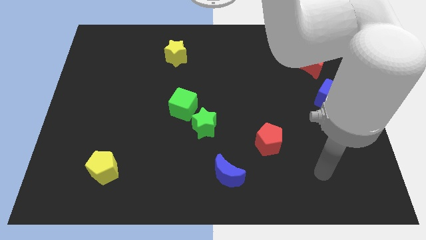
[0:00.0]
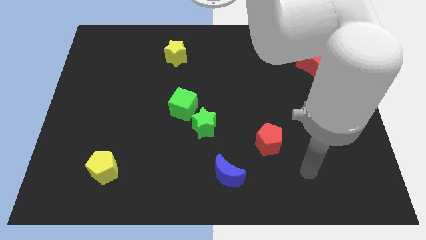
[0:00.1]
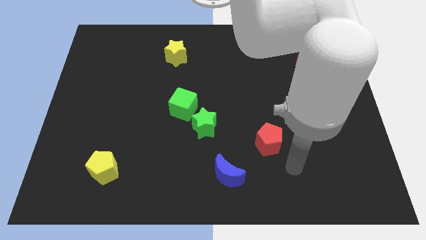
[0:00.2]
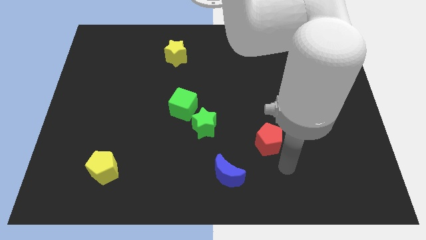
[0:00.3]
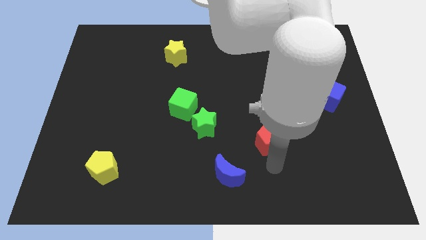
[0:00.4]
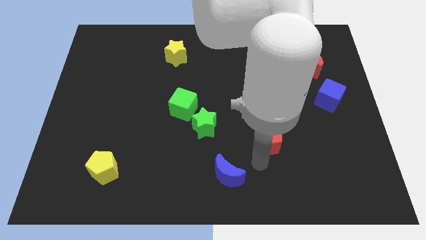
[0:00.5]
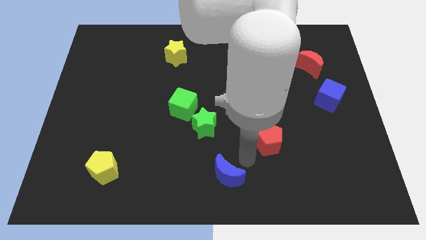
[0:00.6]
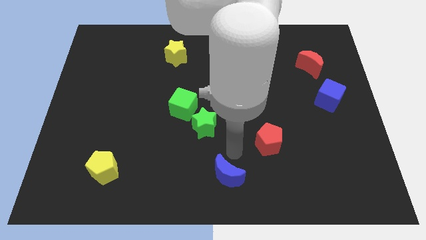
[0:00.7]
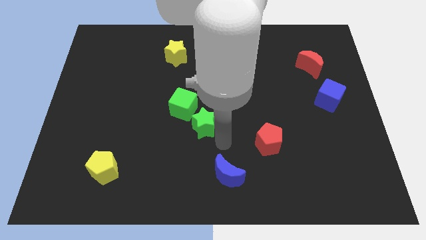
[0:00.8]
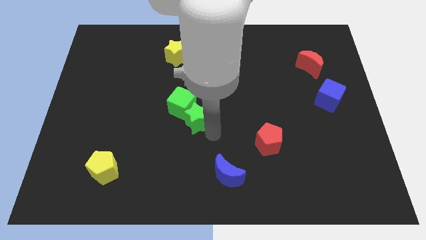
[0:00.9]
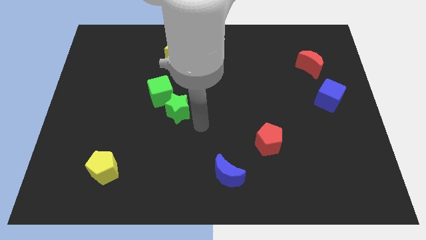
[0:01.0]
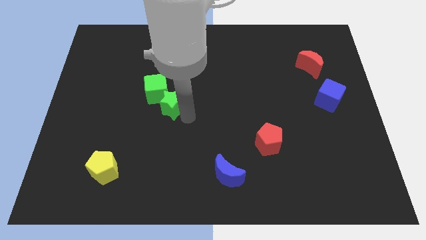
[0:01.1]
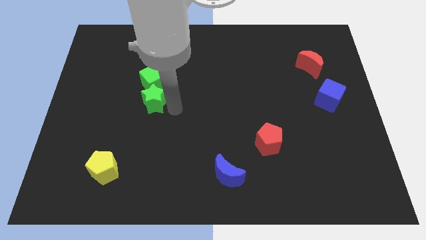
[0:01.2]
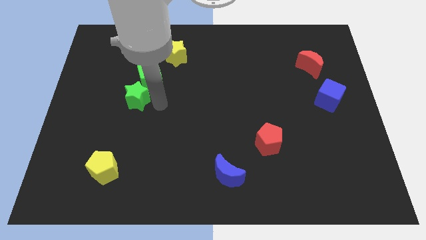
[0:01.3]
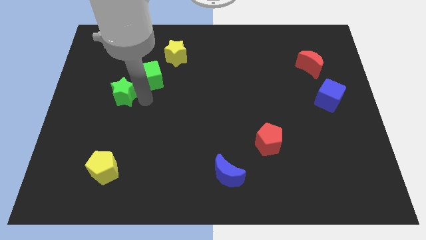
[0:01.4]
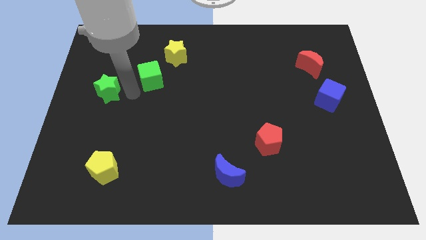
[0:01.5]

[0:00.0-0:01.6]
separate the green cube from the green star

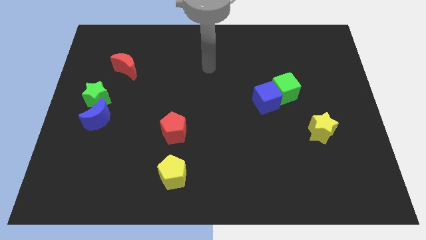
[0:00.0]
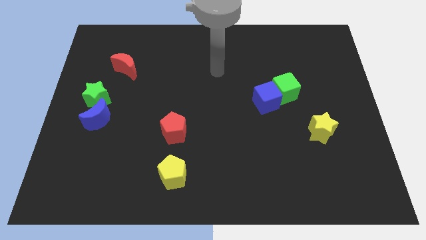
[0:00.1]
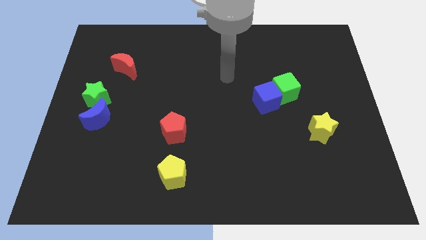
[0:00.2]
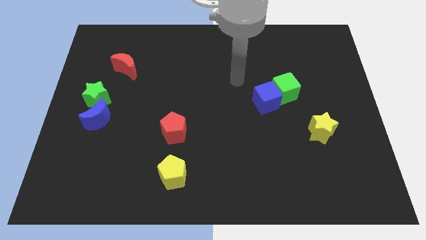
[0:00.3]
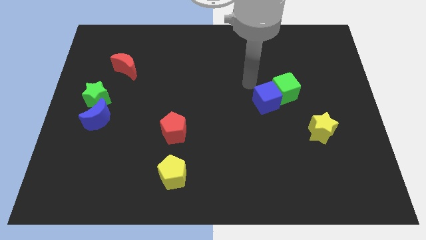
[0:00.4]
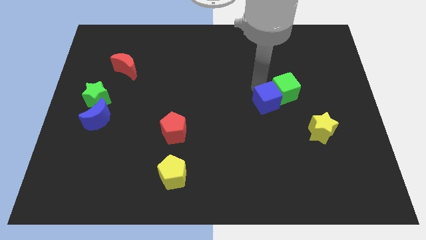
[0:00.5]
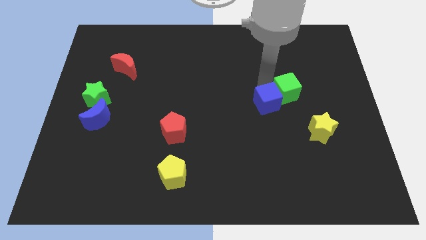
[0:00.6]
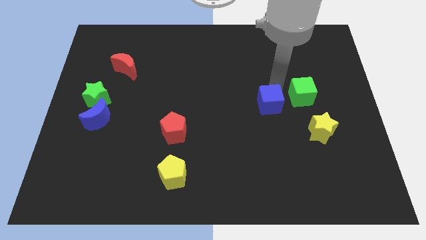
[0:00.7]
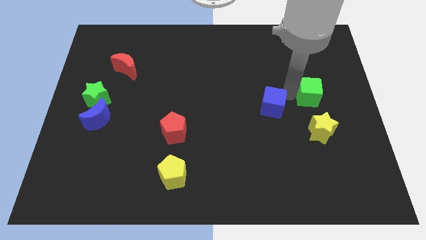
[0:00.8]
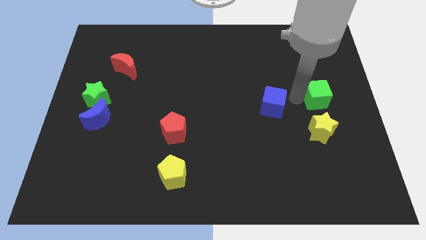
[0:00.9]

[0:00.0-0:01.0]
separate the blue cube from the green cube

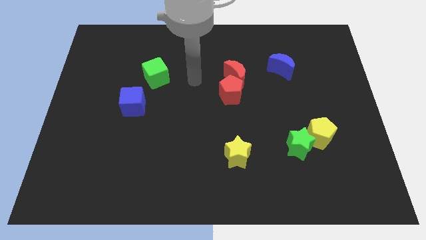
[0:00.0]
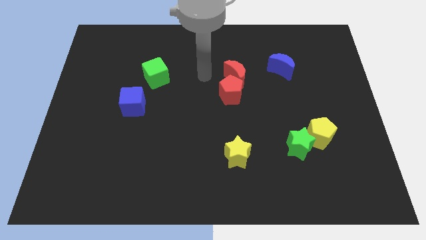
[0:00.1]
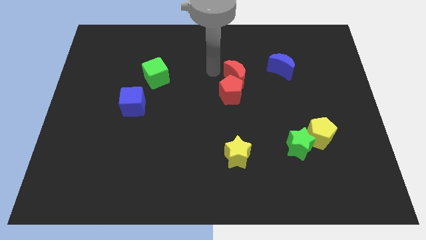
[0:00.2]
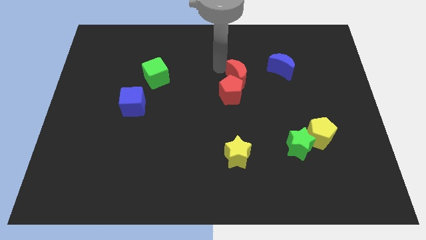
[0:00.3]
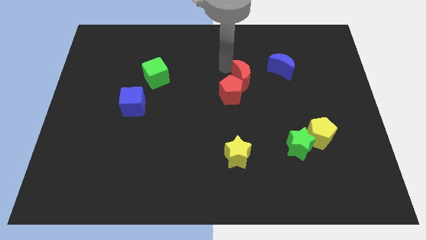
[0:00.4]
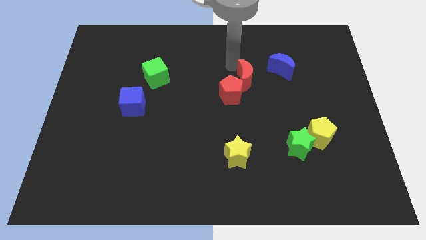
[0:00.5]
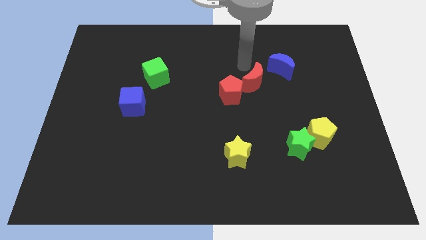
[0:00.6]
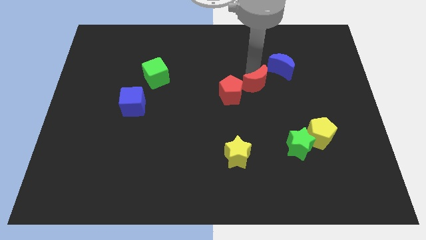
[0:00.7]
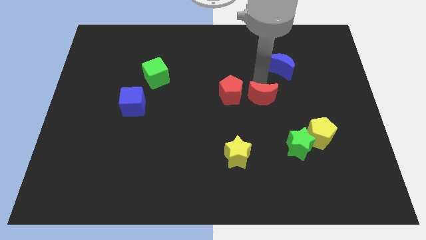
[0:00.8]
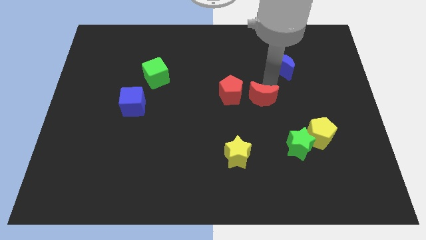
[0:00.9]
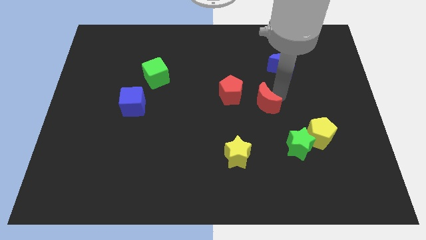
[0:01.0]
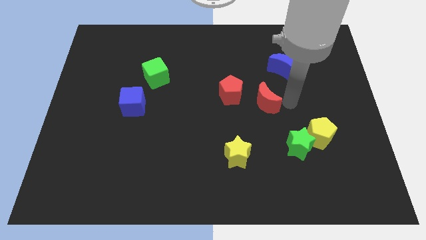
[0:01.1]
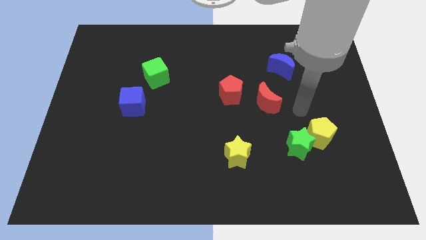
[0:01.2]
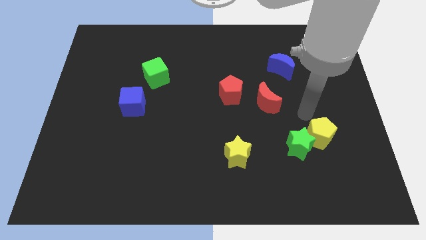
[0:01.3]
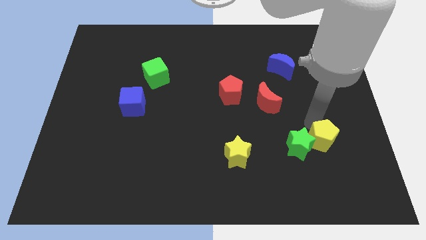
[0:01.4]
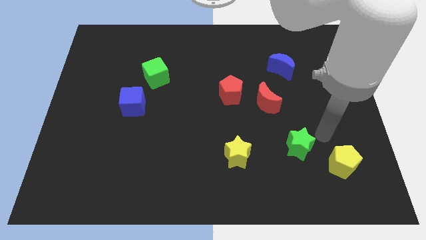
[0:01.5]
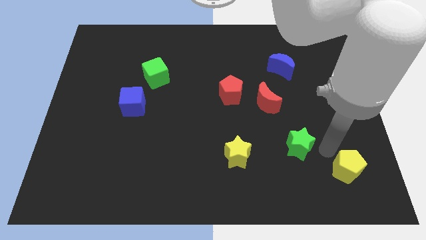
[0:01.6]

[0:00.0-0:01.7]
move the green star away from the yellow pentagon

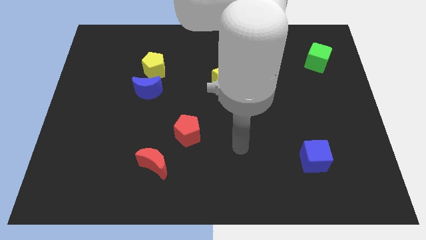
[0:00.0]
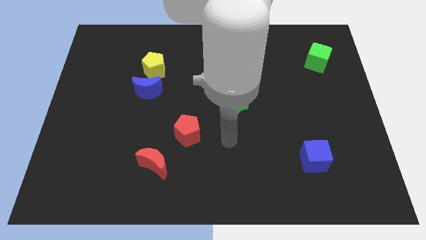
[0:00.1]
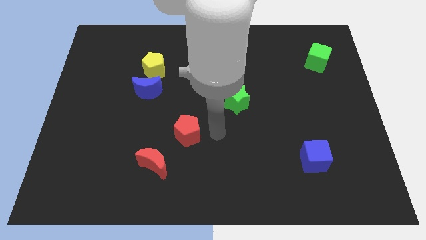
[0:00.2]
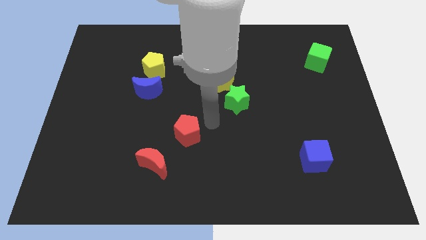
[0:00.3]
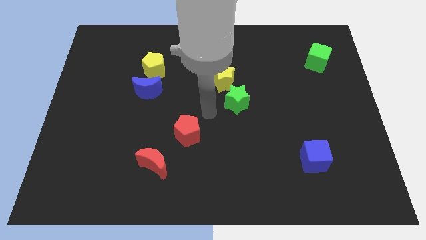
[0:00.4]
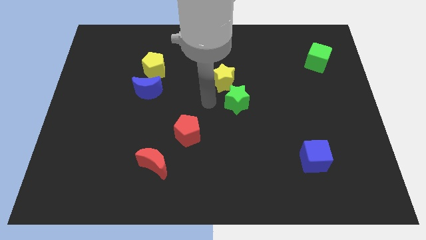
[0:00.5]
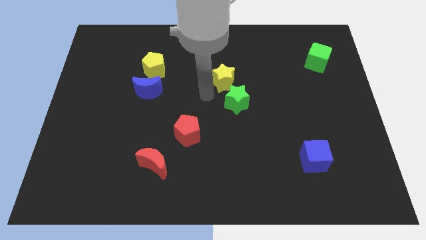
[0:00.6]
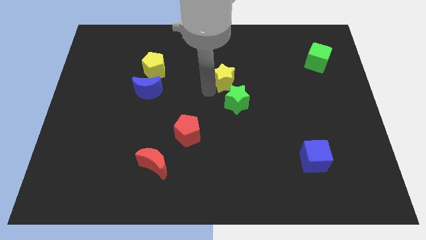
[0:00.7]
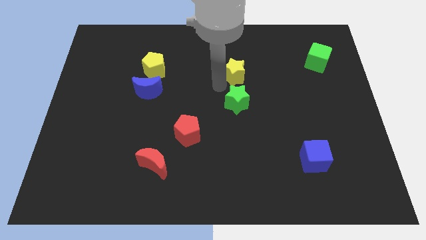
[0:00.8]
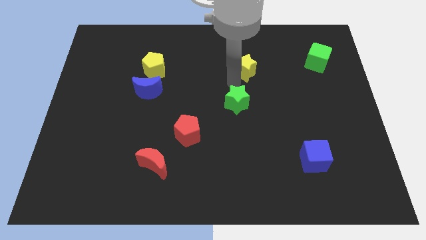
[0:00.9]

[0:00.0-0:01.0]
move the green star away from the yellow star

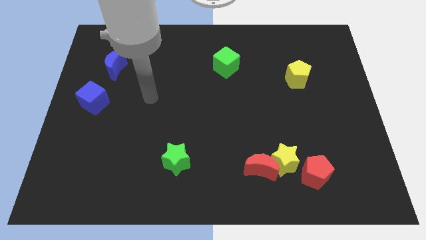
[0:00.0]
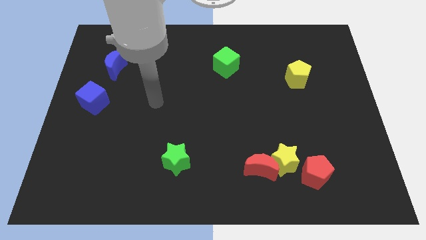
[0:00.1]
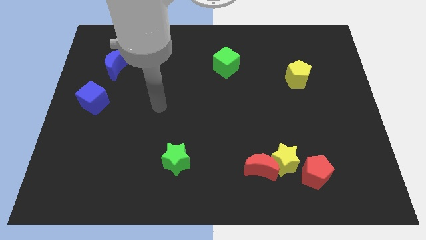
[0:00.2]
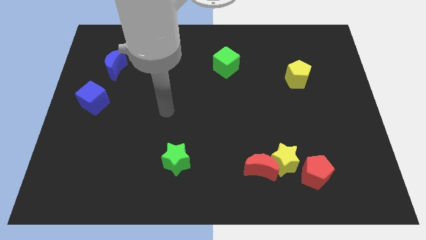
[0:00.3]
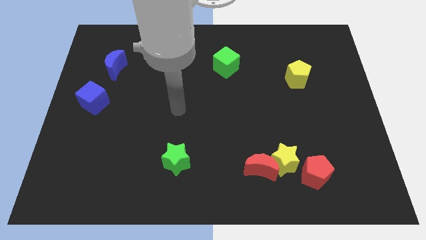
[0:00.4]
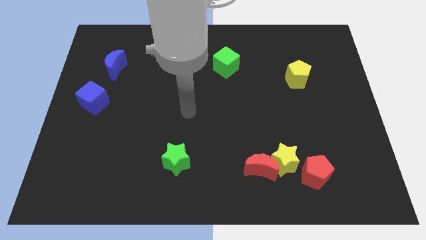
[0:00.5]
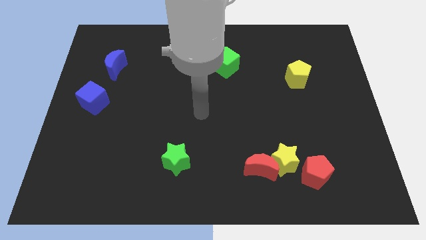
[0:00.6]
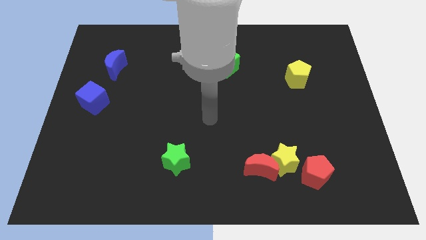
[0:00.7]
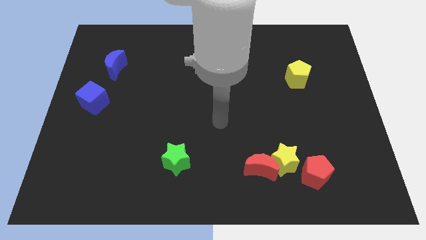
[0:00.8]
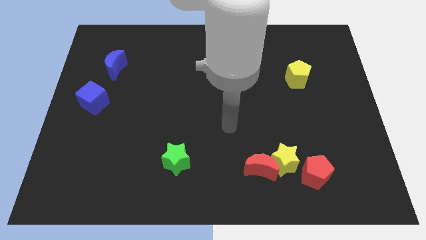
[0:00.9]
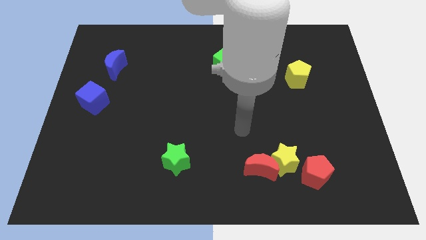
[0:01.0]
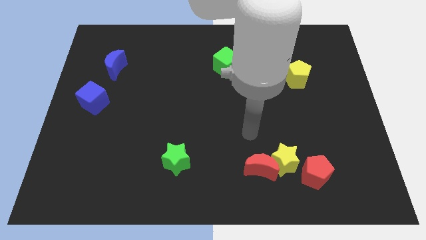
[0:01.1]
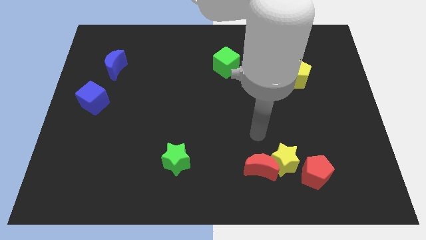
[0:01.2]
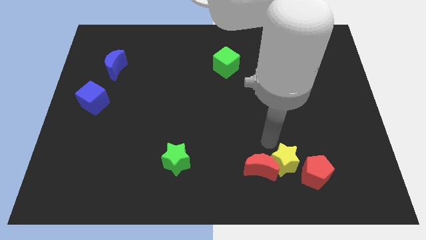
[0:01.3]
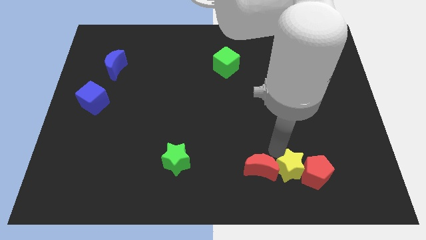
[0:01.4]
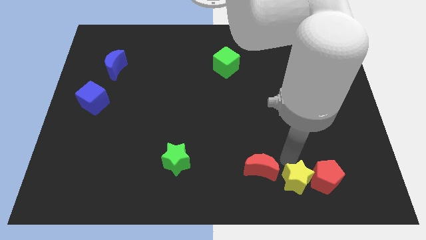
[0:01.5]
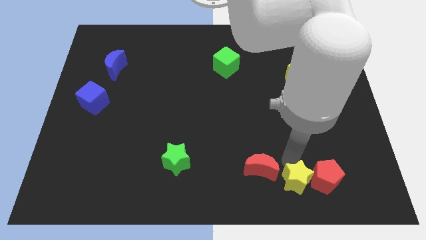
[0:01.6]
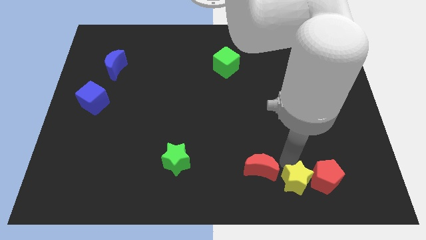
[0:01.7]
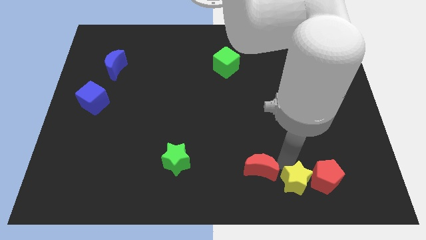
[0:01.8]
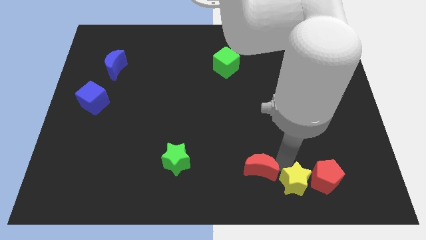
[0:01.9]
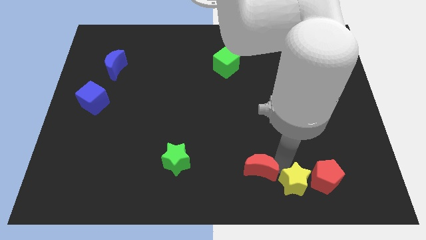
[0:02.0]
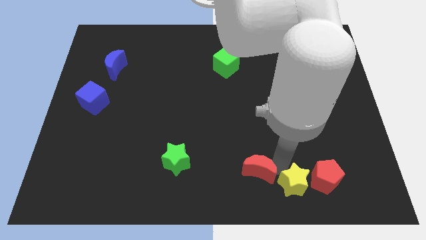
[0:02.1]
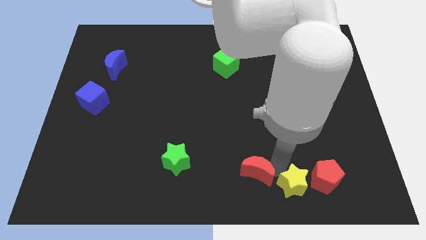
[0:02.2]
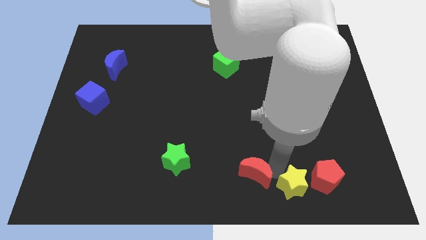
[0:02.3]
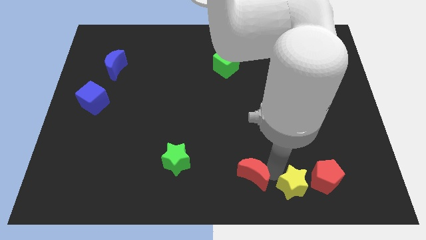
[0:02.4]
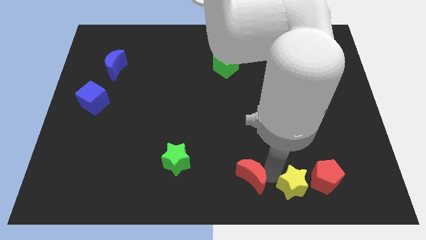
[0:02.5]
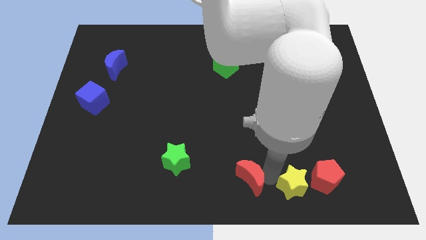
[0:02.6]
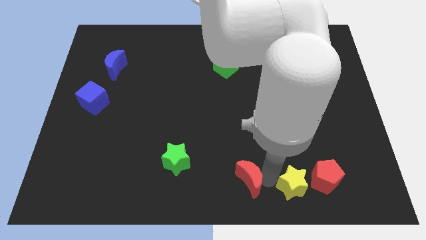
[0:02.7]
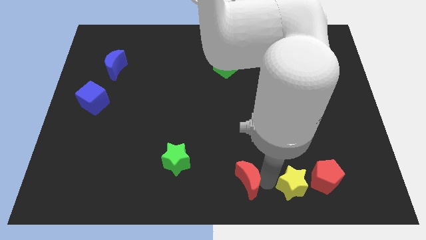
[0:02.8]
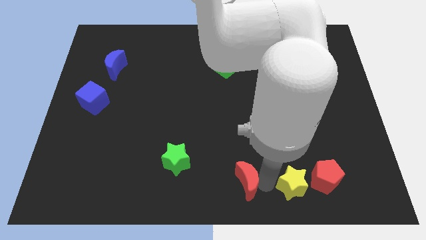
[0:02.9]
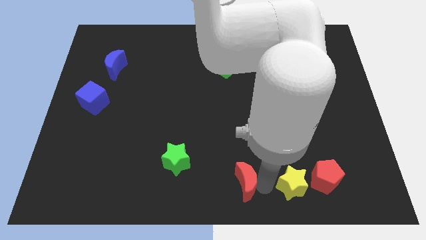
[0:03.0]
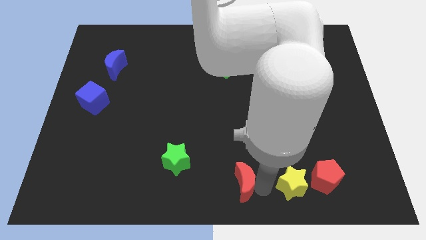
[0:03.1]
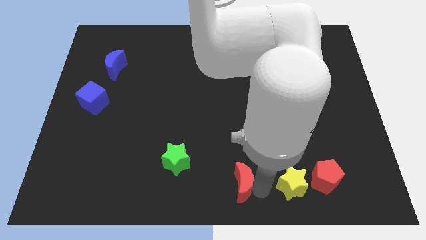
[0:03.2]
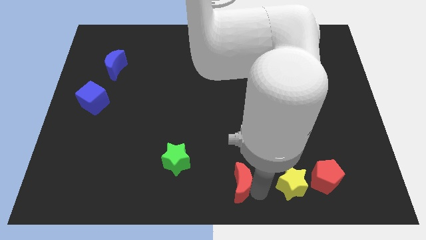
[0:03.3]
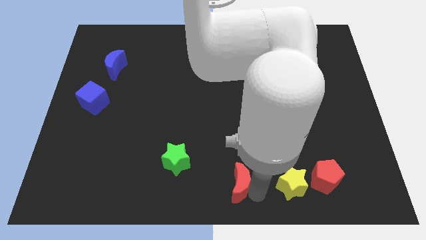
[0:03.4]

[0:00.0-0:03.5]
move the red moon away from the yellow star

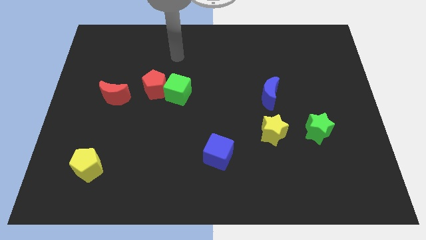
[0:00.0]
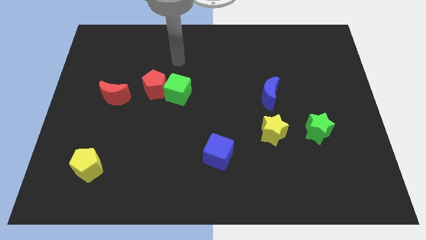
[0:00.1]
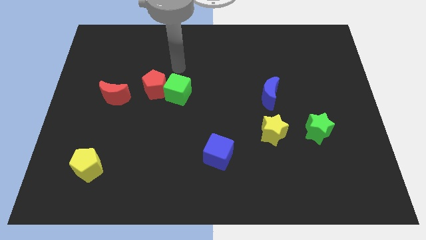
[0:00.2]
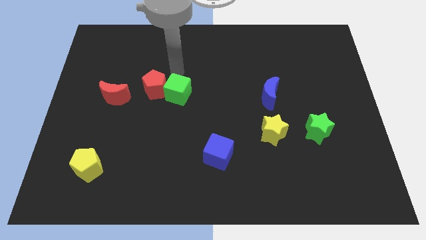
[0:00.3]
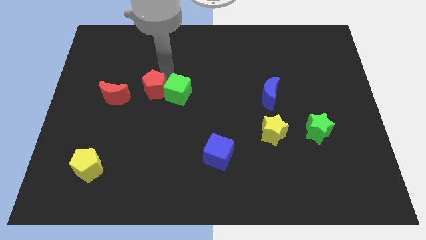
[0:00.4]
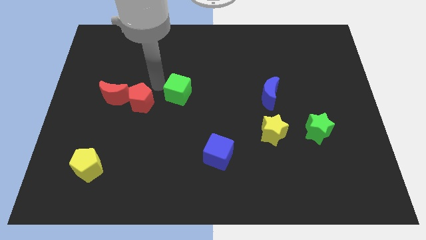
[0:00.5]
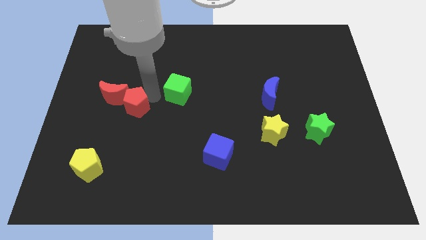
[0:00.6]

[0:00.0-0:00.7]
pull the green cube apart from the red pentagon
